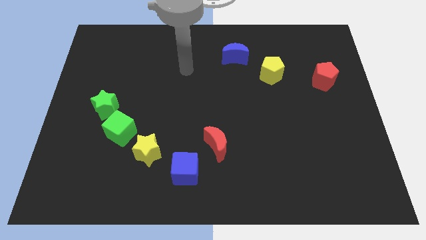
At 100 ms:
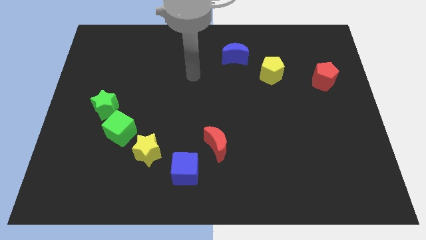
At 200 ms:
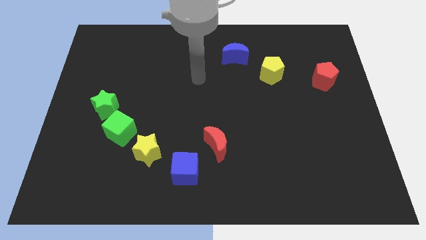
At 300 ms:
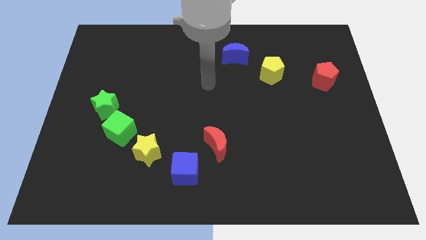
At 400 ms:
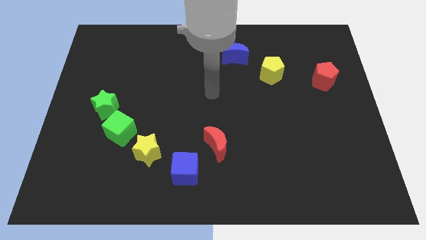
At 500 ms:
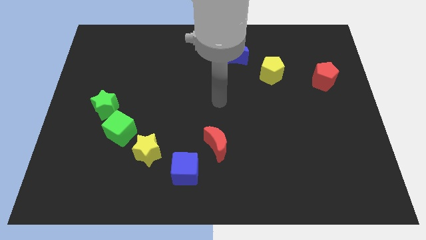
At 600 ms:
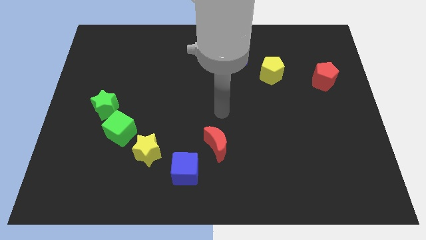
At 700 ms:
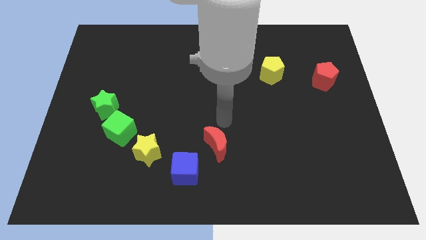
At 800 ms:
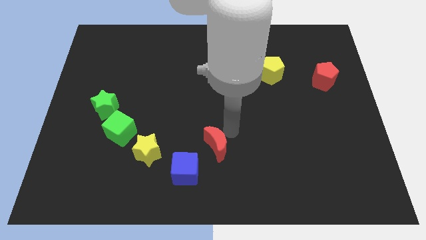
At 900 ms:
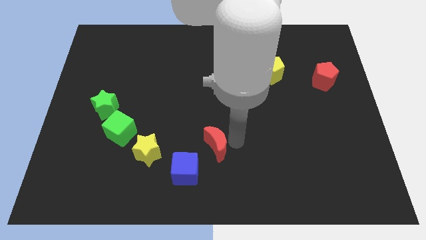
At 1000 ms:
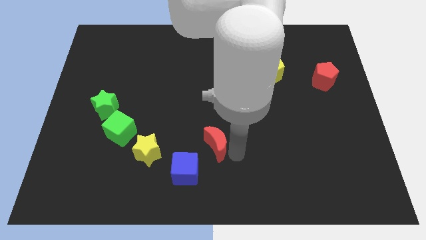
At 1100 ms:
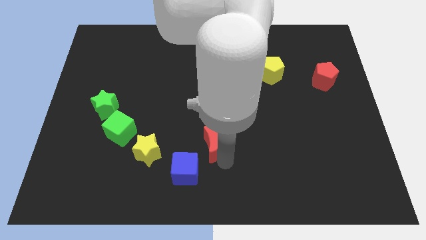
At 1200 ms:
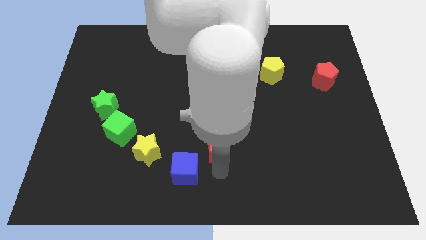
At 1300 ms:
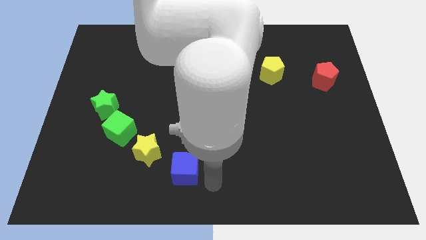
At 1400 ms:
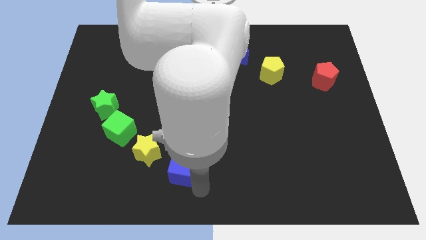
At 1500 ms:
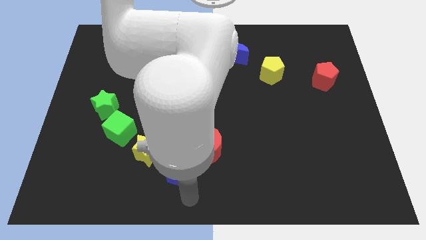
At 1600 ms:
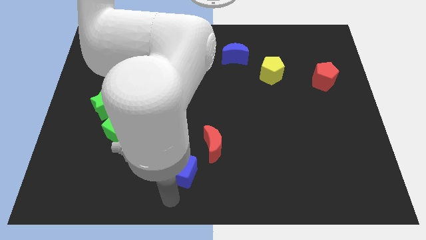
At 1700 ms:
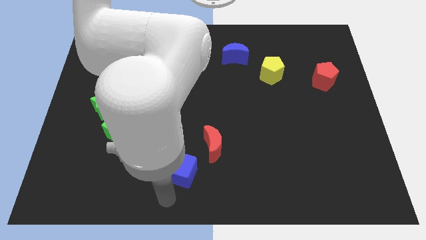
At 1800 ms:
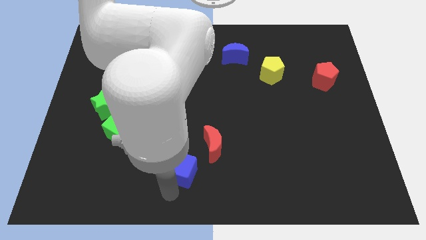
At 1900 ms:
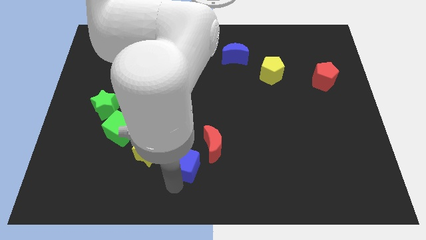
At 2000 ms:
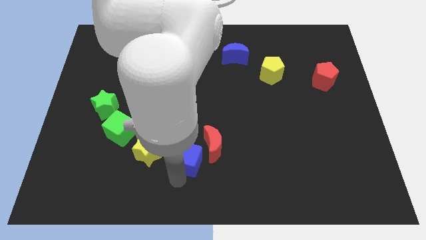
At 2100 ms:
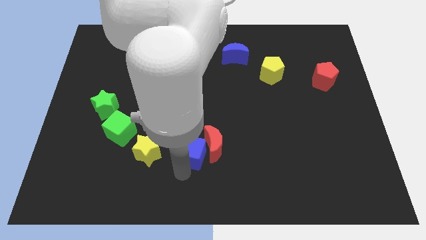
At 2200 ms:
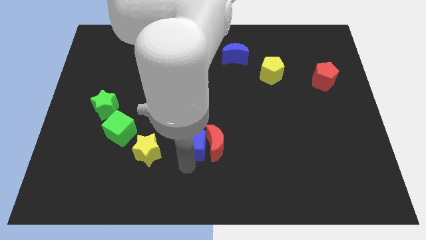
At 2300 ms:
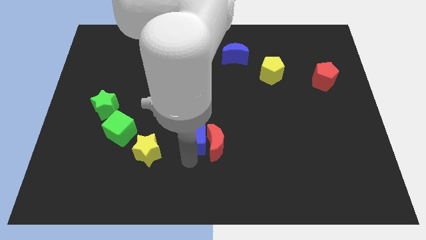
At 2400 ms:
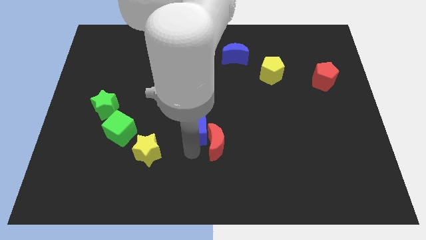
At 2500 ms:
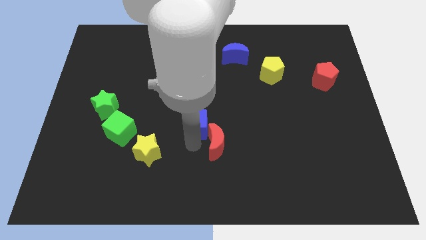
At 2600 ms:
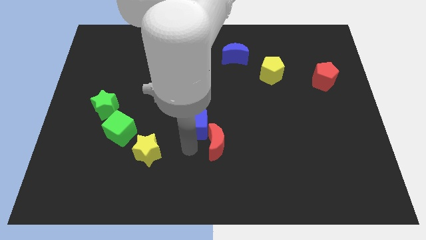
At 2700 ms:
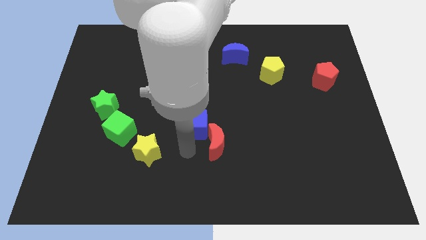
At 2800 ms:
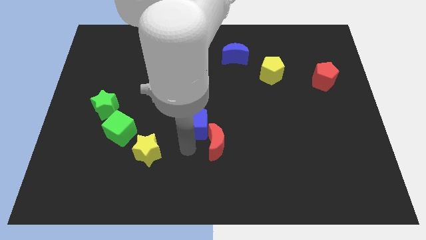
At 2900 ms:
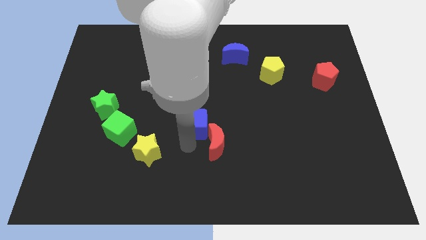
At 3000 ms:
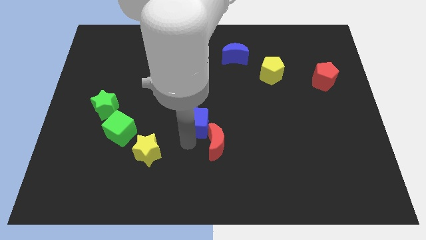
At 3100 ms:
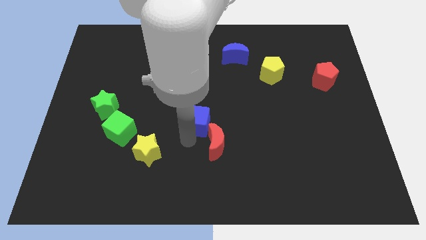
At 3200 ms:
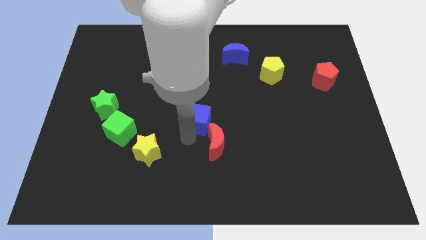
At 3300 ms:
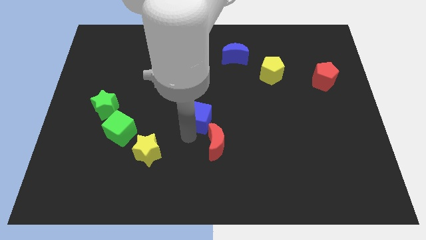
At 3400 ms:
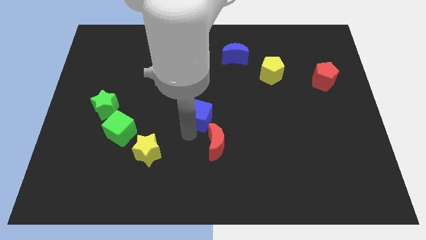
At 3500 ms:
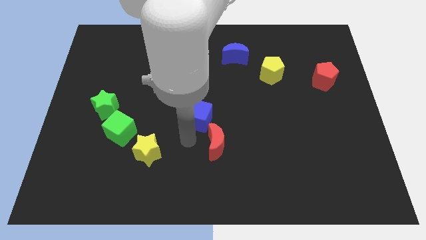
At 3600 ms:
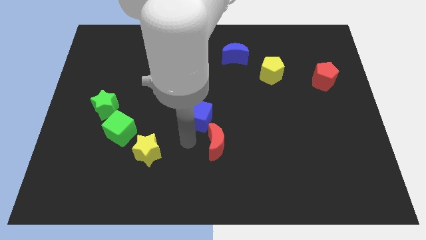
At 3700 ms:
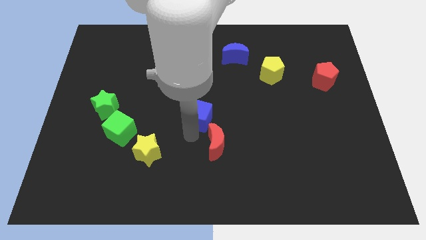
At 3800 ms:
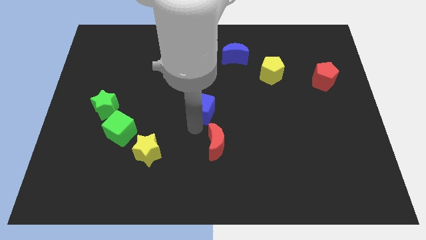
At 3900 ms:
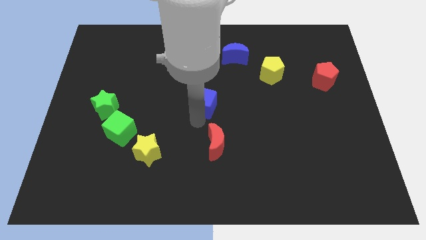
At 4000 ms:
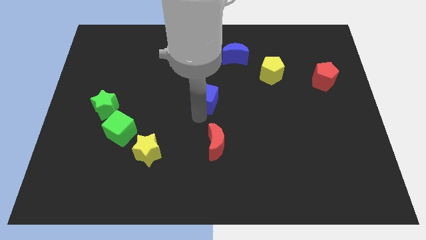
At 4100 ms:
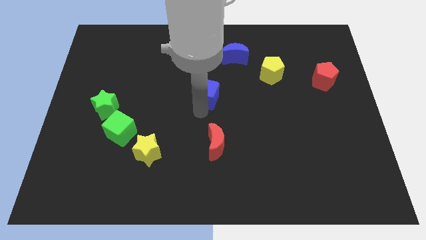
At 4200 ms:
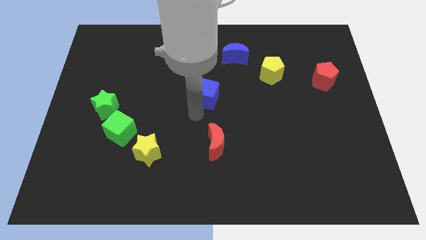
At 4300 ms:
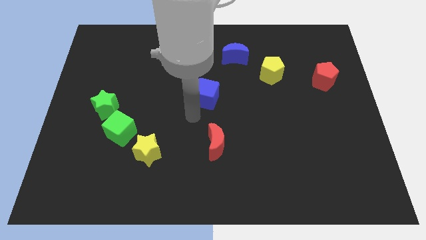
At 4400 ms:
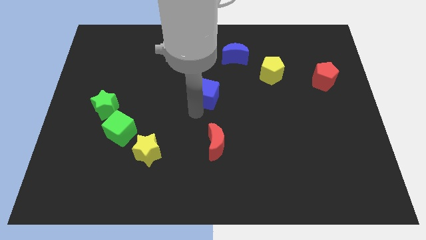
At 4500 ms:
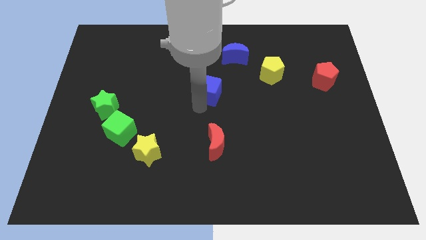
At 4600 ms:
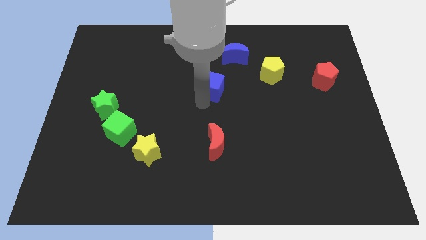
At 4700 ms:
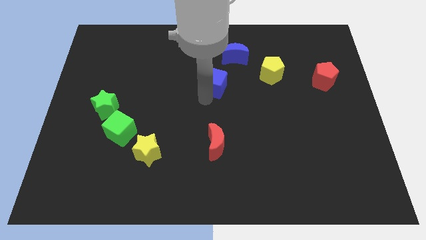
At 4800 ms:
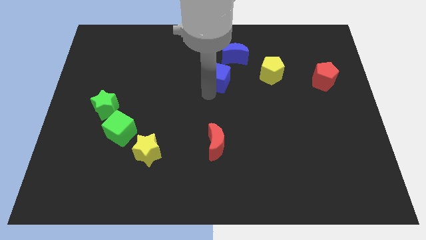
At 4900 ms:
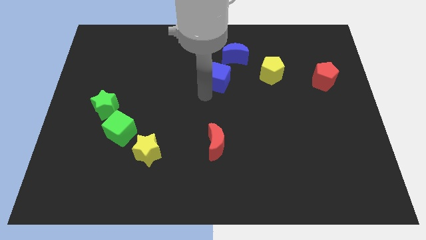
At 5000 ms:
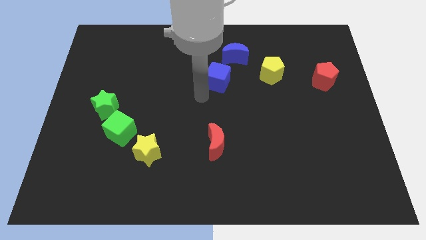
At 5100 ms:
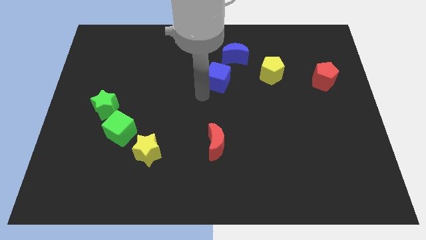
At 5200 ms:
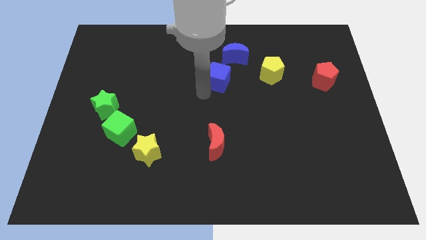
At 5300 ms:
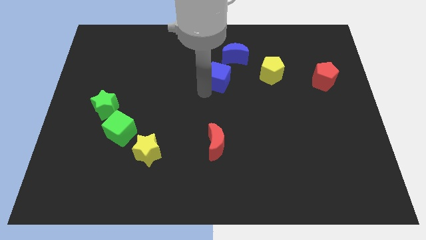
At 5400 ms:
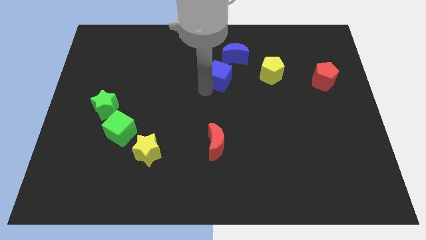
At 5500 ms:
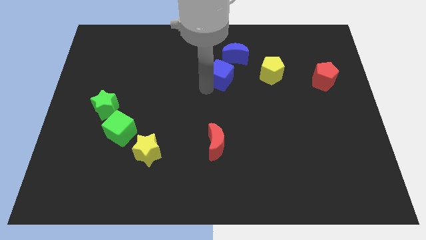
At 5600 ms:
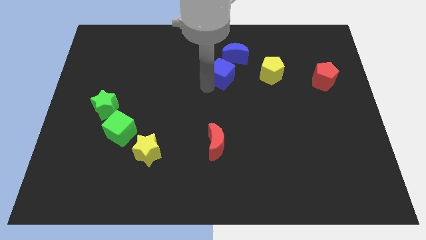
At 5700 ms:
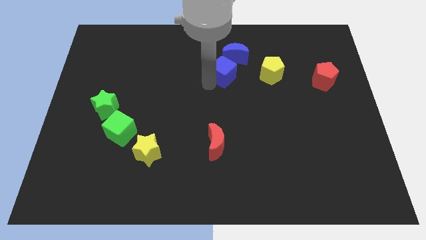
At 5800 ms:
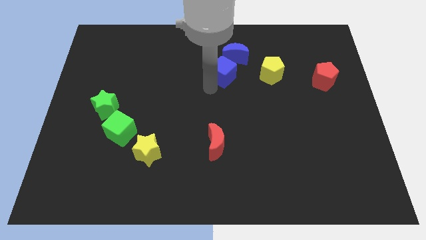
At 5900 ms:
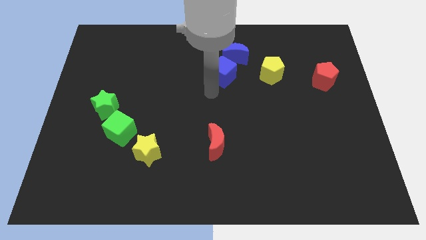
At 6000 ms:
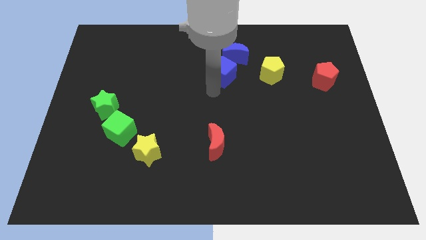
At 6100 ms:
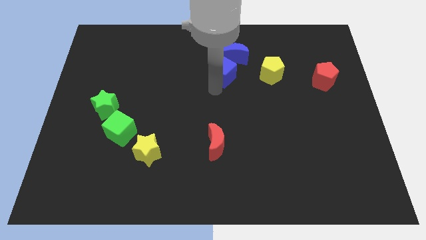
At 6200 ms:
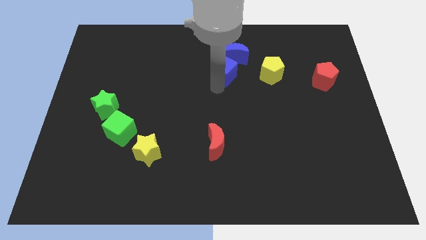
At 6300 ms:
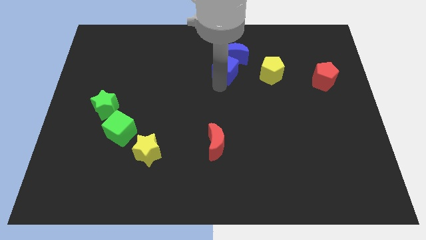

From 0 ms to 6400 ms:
put the blue cube to the blue moon

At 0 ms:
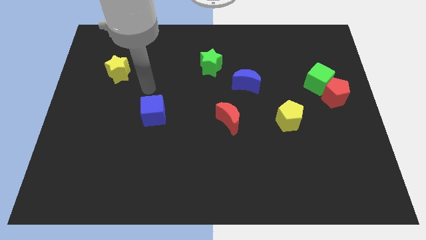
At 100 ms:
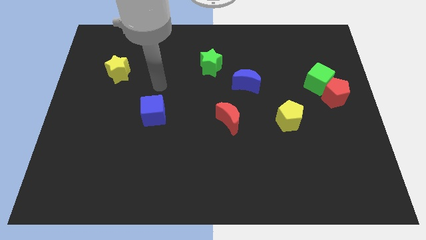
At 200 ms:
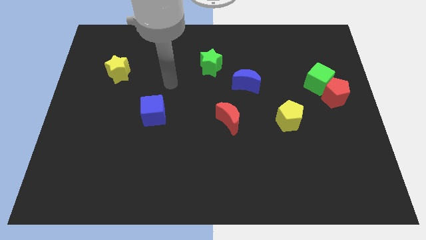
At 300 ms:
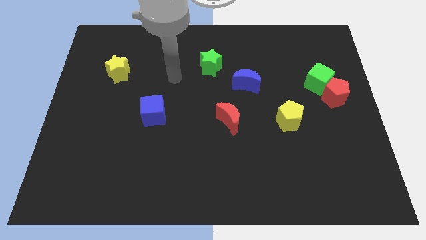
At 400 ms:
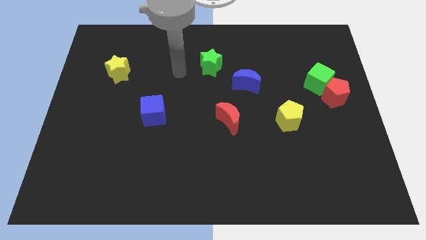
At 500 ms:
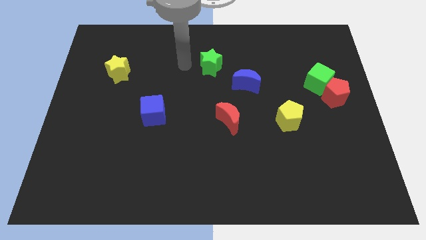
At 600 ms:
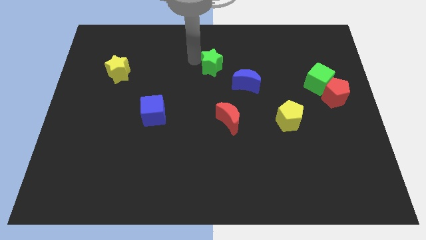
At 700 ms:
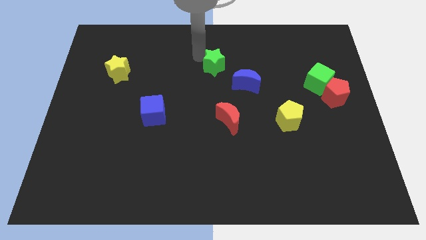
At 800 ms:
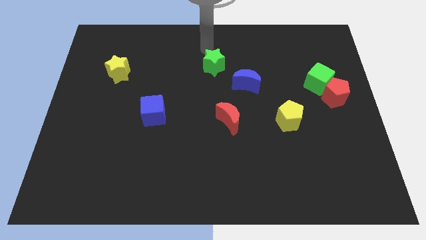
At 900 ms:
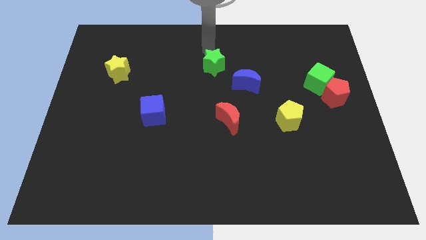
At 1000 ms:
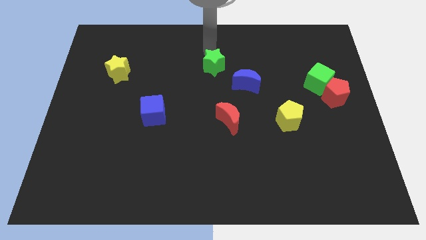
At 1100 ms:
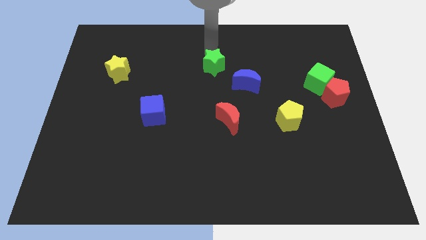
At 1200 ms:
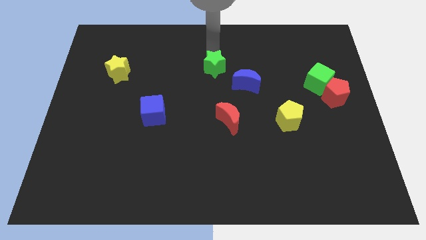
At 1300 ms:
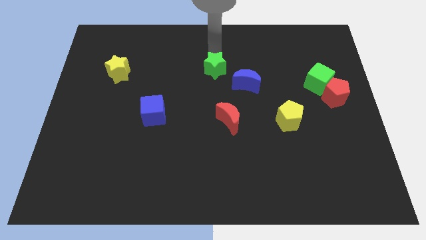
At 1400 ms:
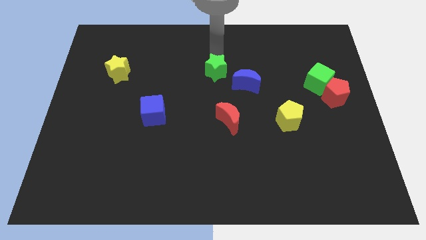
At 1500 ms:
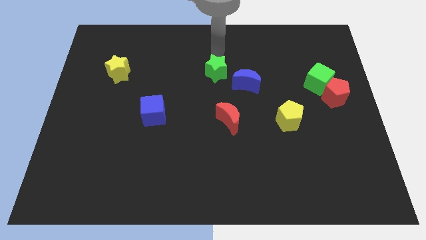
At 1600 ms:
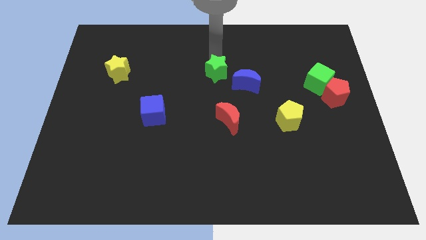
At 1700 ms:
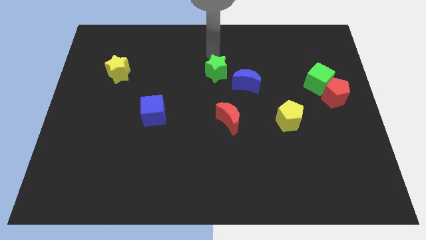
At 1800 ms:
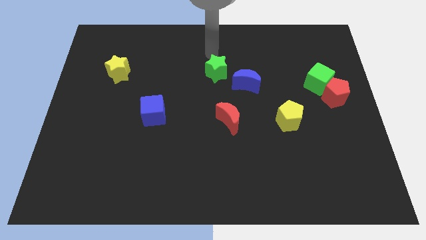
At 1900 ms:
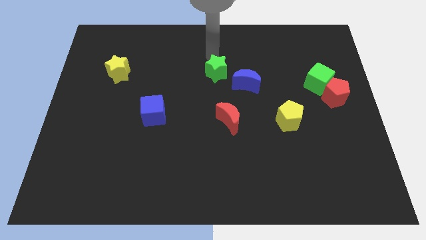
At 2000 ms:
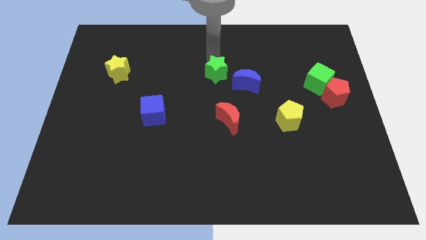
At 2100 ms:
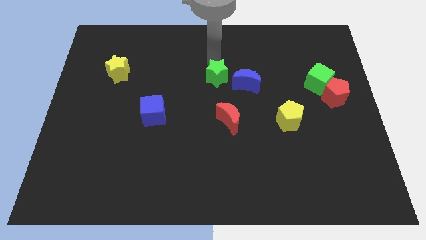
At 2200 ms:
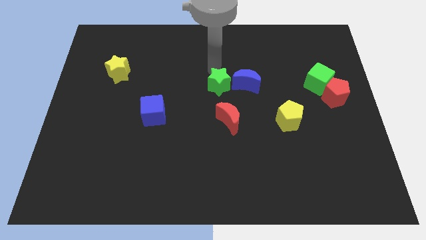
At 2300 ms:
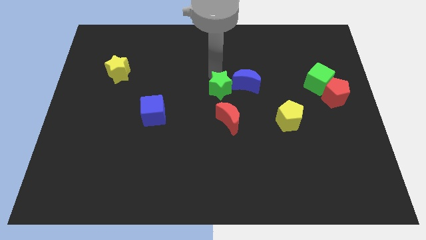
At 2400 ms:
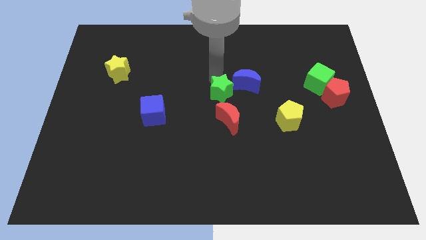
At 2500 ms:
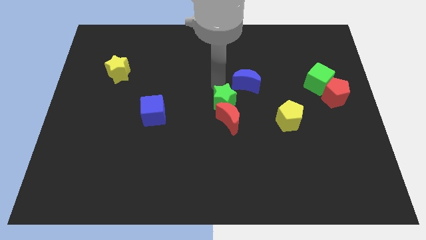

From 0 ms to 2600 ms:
slide the green star close to the red moon
